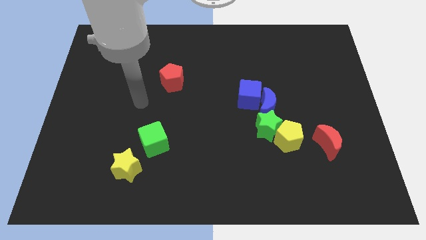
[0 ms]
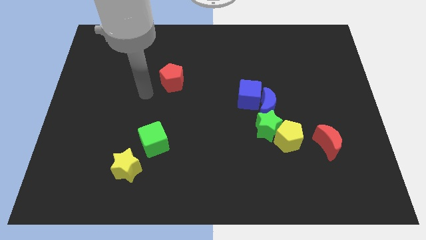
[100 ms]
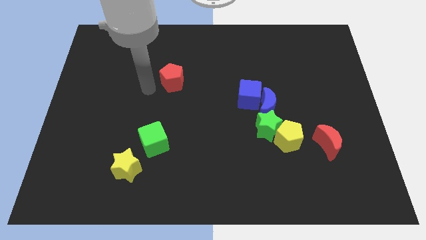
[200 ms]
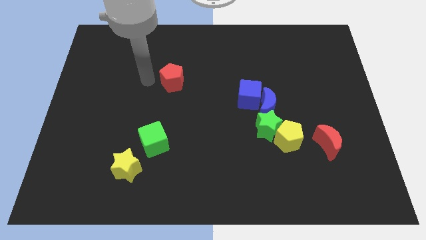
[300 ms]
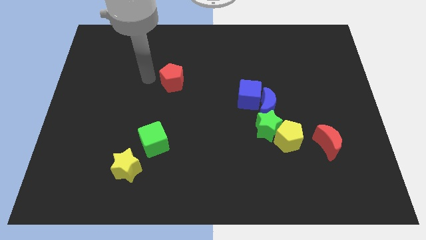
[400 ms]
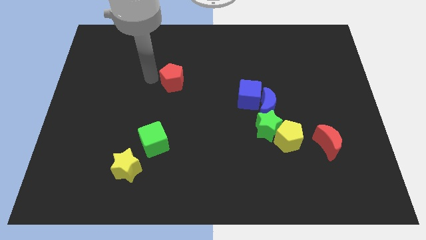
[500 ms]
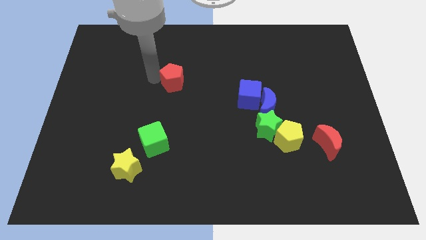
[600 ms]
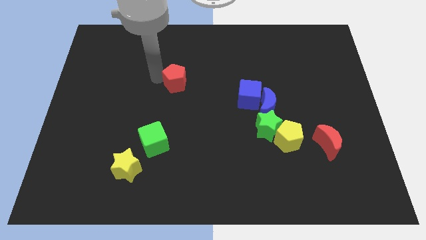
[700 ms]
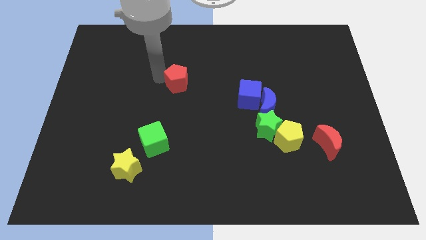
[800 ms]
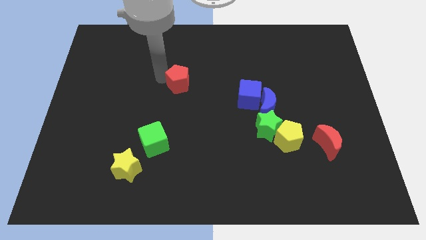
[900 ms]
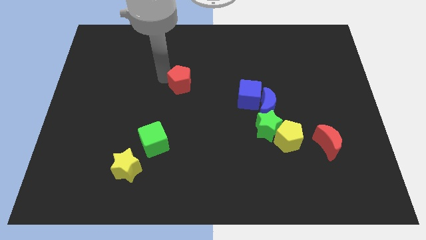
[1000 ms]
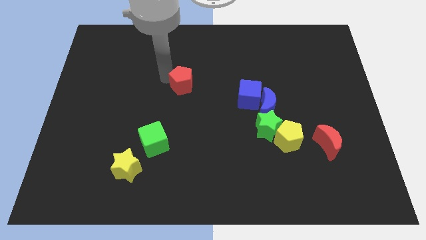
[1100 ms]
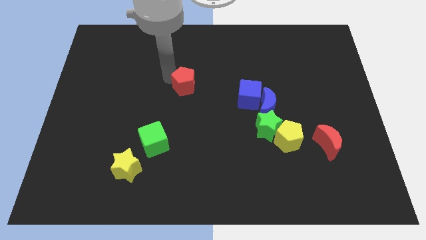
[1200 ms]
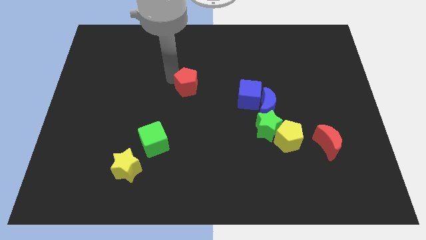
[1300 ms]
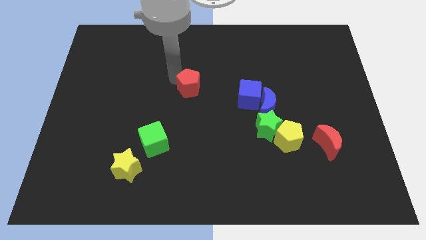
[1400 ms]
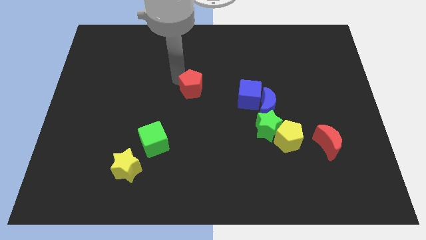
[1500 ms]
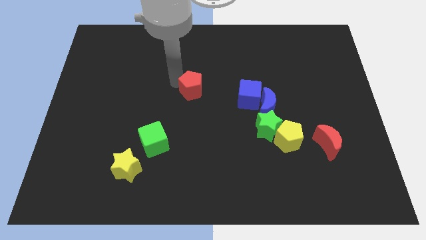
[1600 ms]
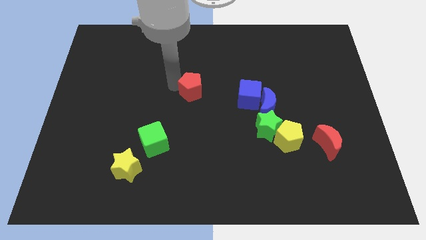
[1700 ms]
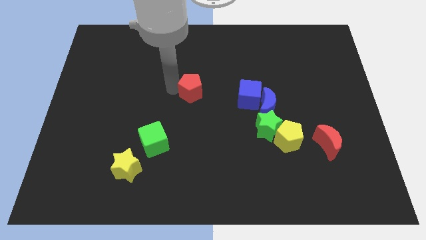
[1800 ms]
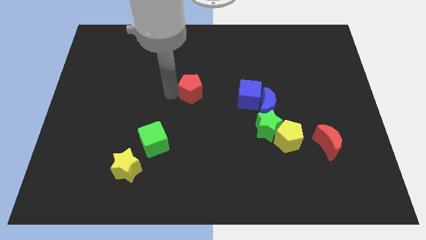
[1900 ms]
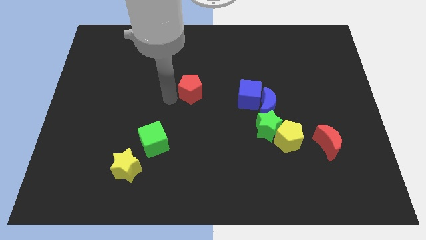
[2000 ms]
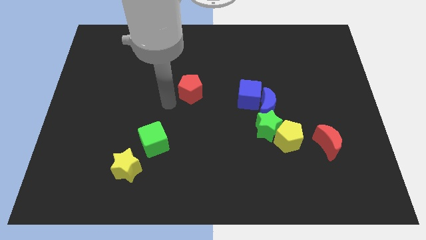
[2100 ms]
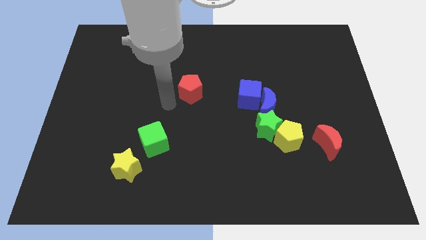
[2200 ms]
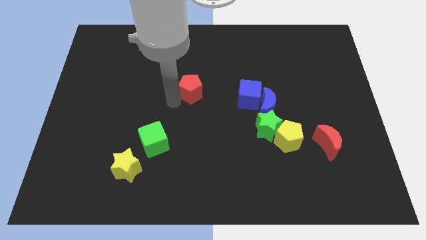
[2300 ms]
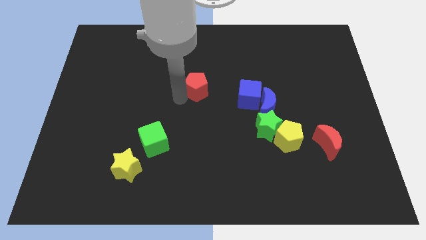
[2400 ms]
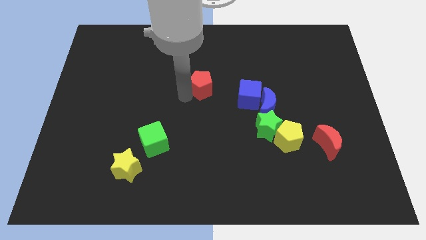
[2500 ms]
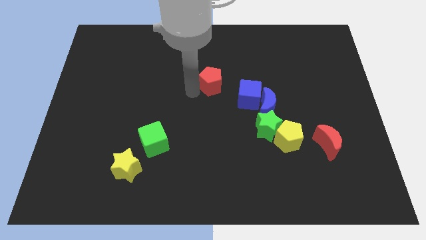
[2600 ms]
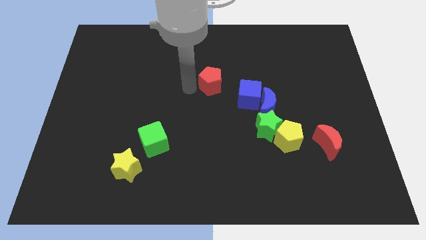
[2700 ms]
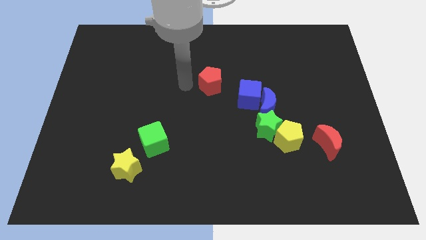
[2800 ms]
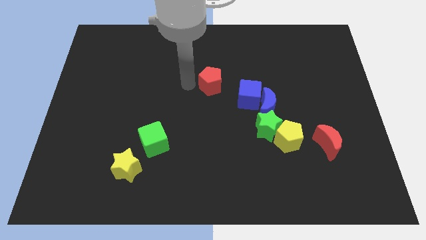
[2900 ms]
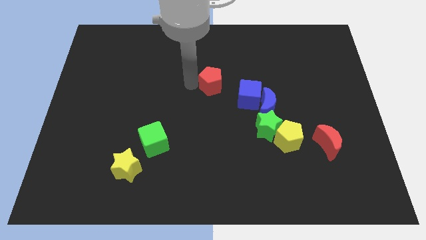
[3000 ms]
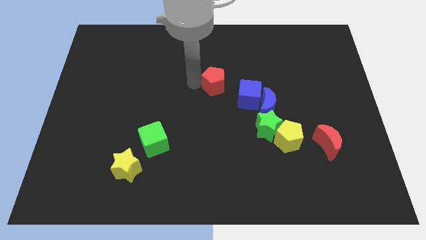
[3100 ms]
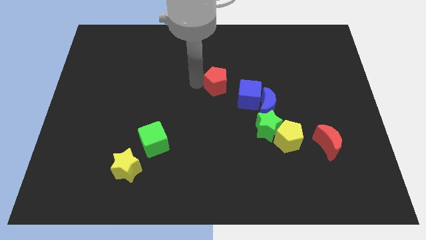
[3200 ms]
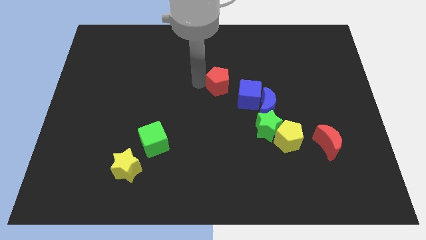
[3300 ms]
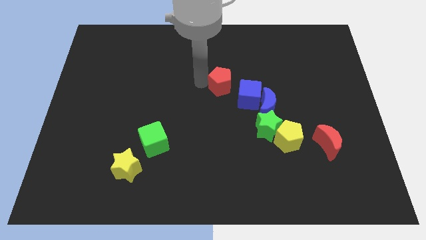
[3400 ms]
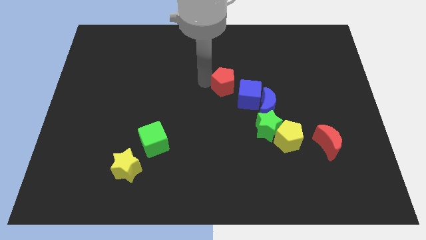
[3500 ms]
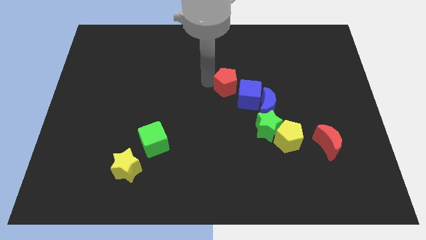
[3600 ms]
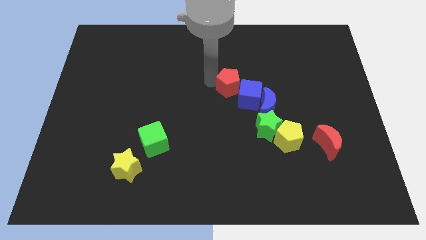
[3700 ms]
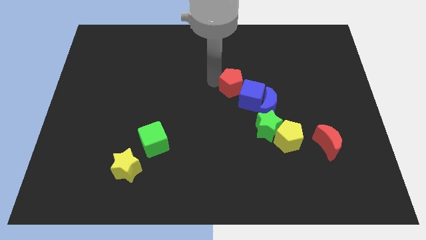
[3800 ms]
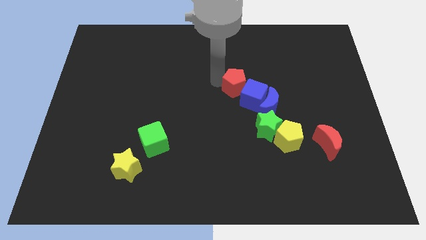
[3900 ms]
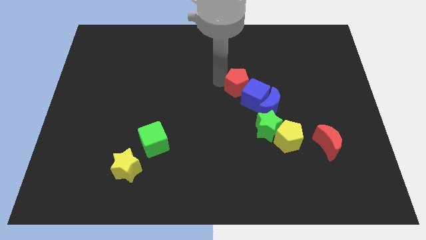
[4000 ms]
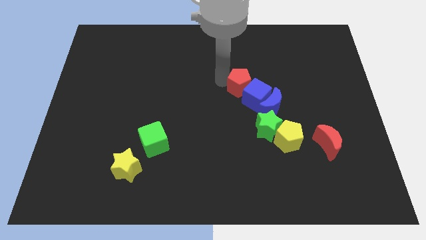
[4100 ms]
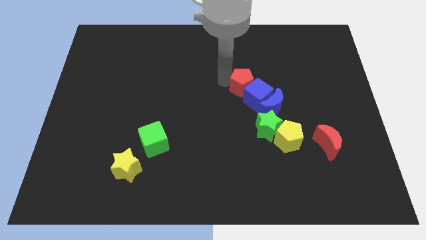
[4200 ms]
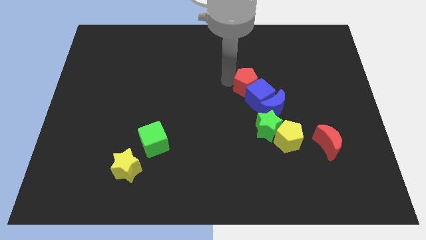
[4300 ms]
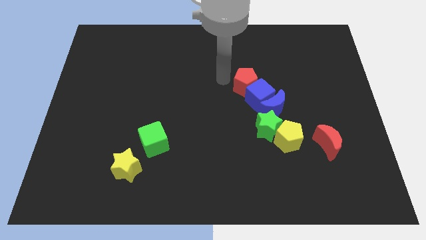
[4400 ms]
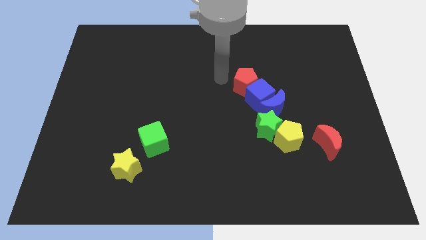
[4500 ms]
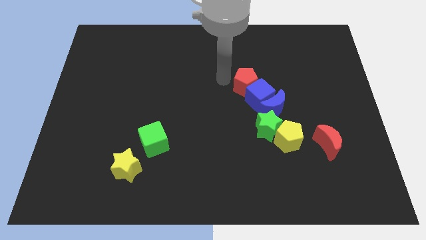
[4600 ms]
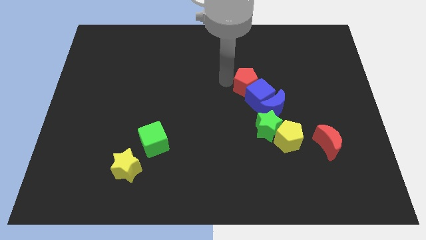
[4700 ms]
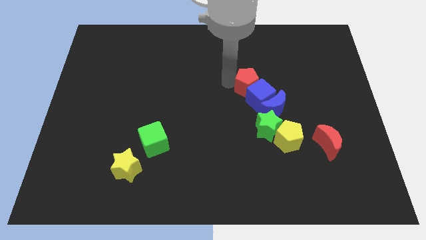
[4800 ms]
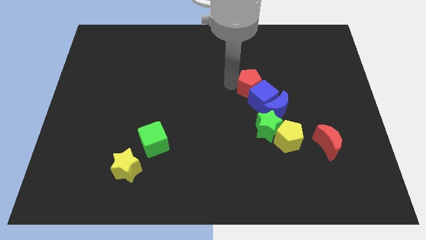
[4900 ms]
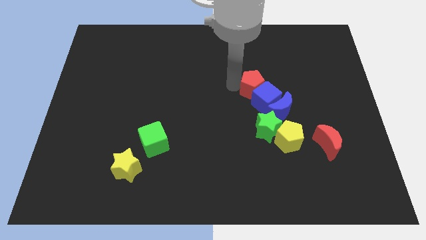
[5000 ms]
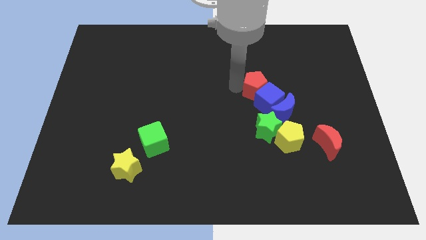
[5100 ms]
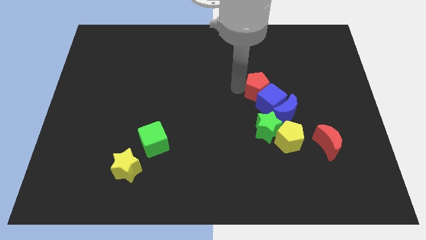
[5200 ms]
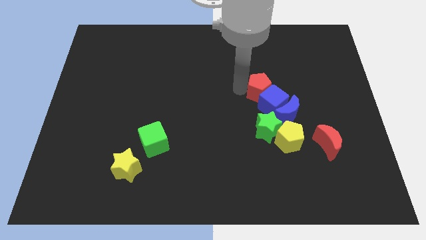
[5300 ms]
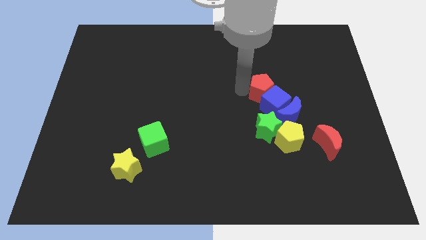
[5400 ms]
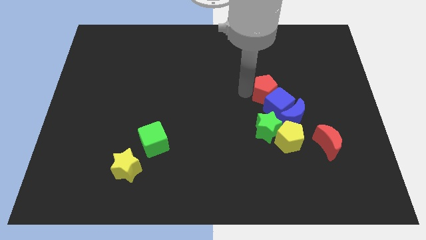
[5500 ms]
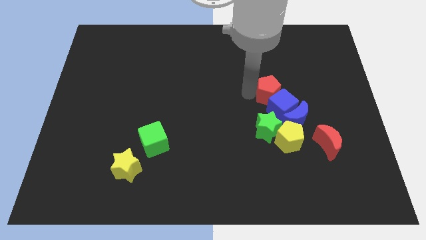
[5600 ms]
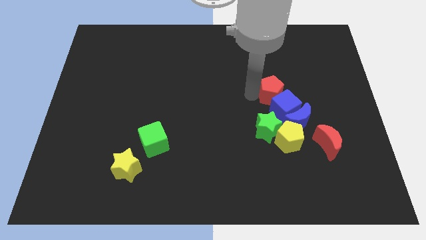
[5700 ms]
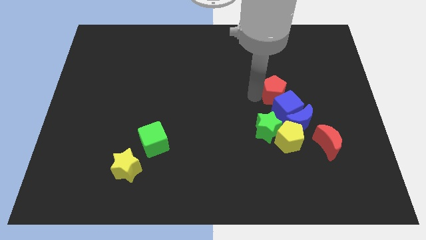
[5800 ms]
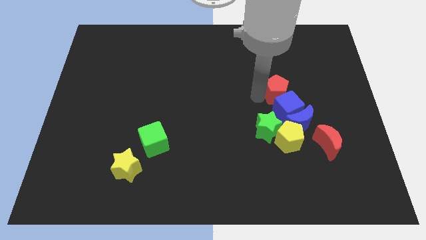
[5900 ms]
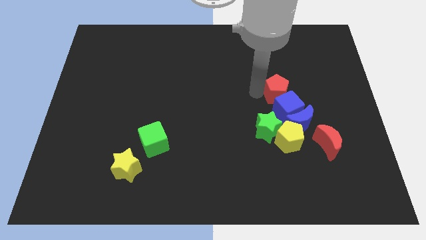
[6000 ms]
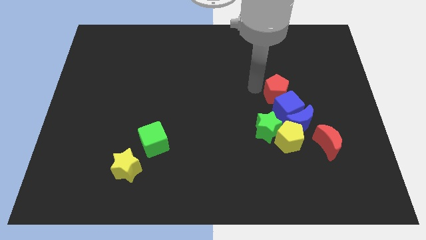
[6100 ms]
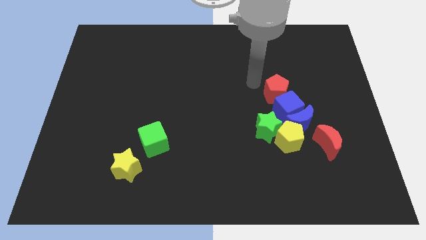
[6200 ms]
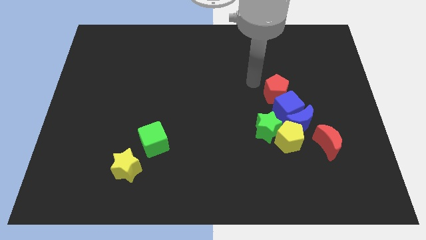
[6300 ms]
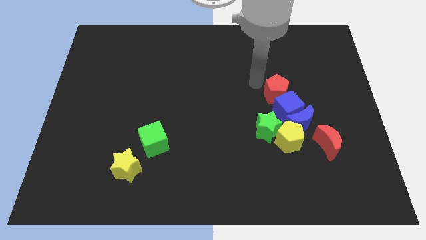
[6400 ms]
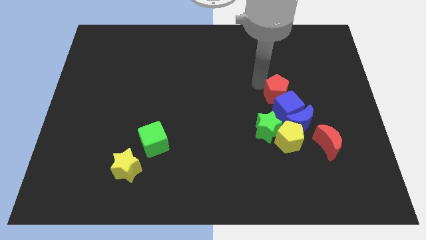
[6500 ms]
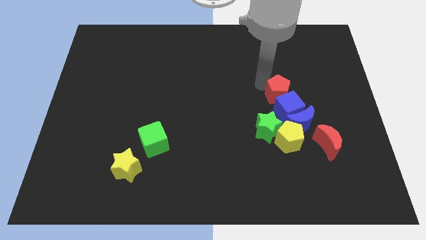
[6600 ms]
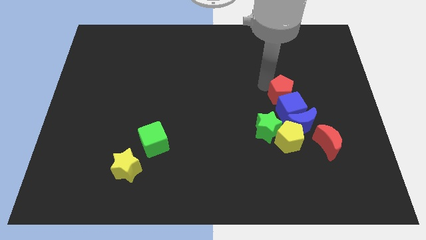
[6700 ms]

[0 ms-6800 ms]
slide the red pentagon to the top right side of the green star

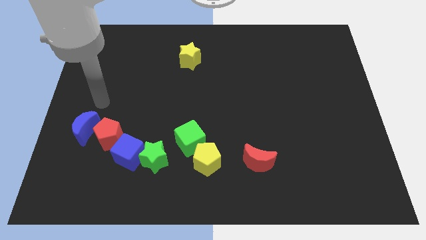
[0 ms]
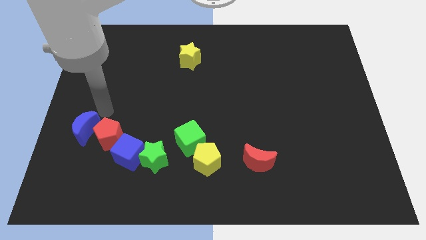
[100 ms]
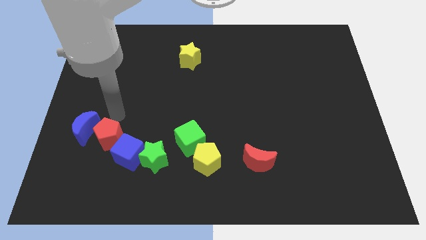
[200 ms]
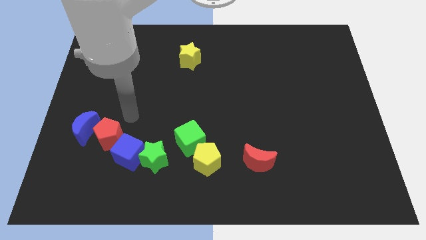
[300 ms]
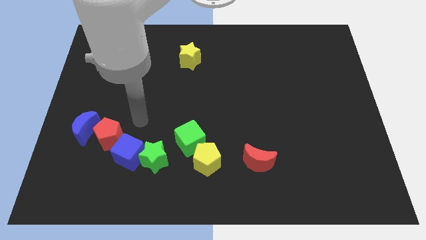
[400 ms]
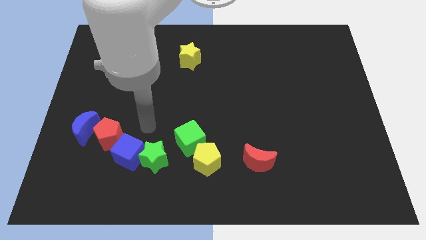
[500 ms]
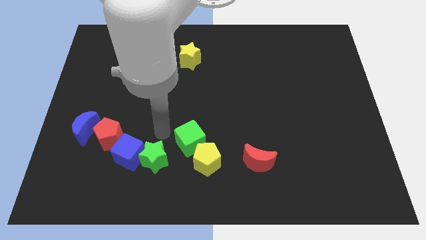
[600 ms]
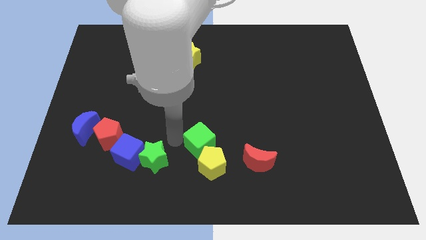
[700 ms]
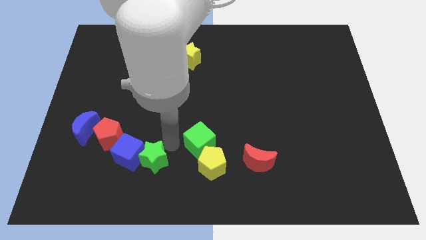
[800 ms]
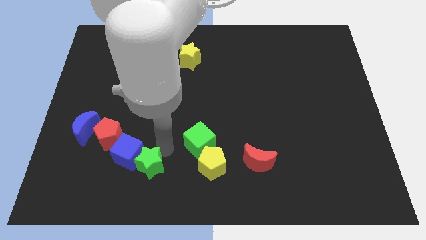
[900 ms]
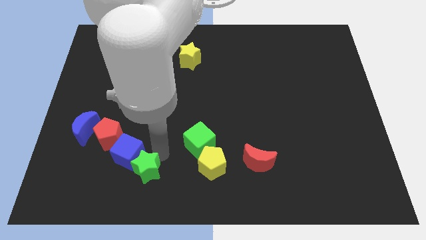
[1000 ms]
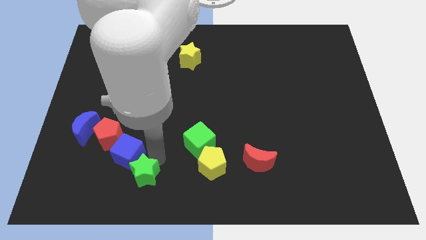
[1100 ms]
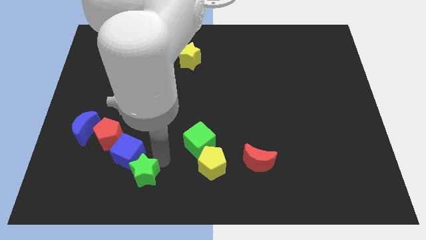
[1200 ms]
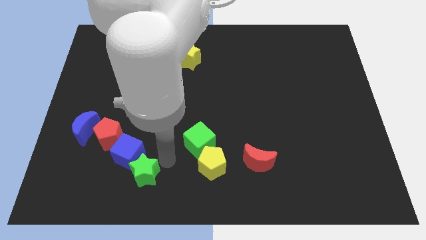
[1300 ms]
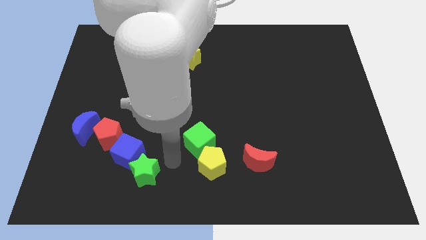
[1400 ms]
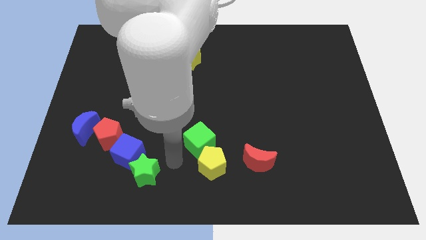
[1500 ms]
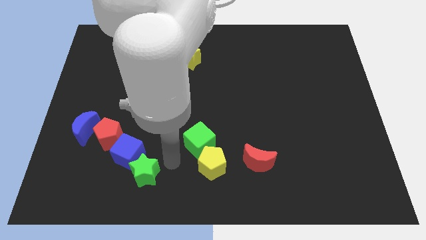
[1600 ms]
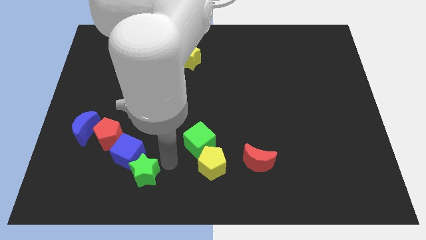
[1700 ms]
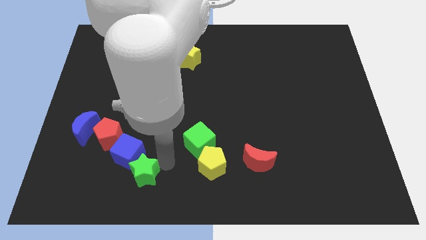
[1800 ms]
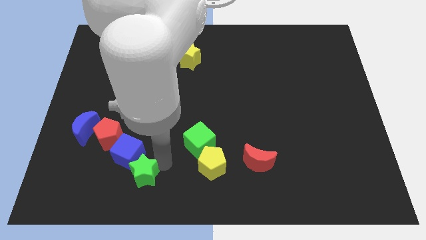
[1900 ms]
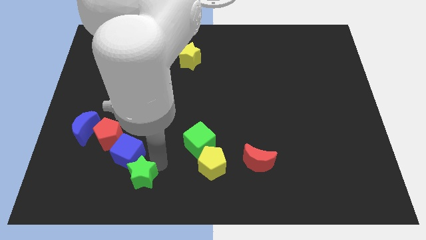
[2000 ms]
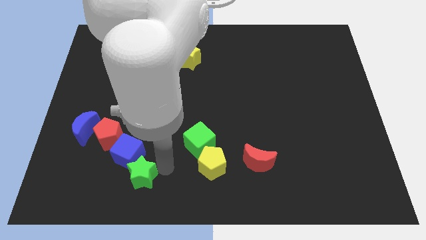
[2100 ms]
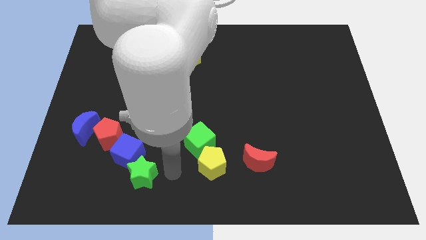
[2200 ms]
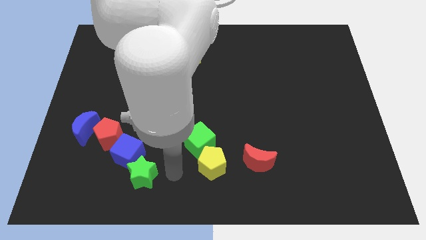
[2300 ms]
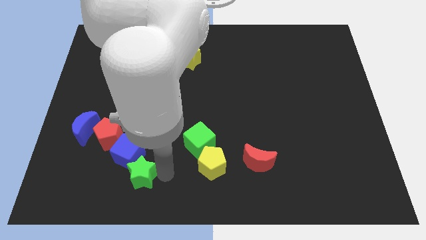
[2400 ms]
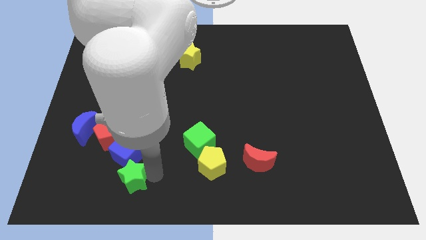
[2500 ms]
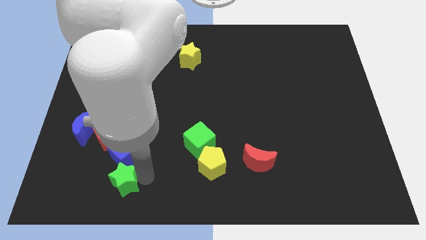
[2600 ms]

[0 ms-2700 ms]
slide the green star to the bottom left side of the blue cube
